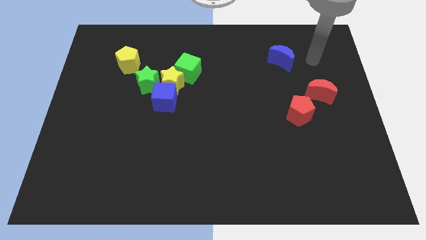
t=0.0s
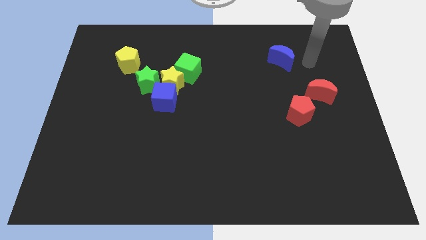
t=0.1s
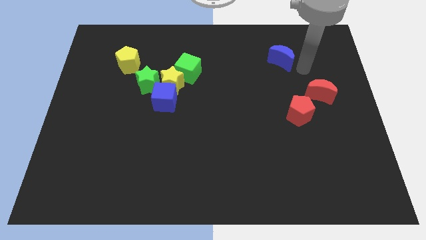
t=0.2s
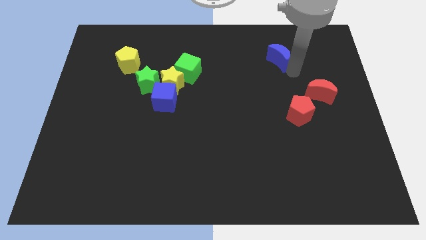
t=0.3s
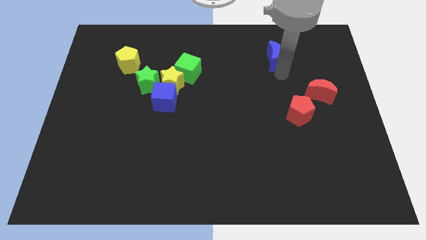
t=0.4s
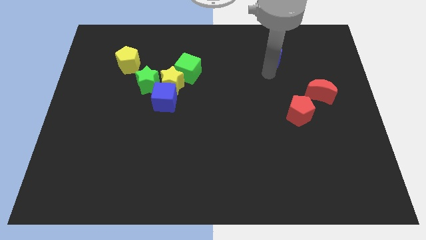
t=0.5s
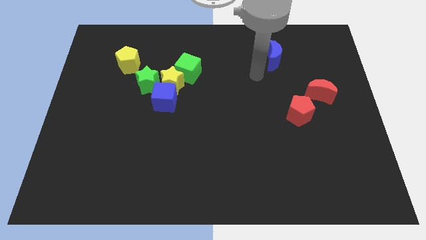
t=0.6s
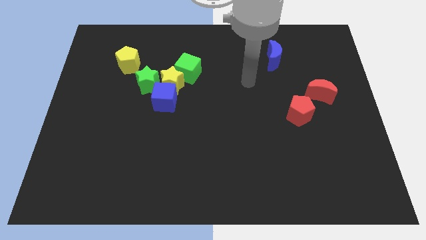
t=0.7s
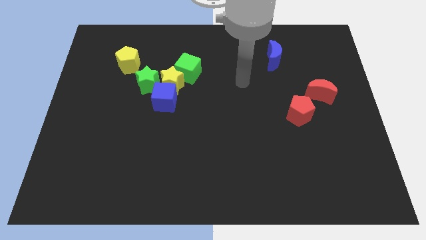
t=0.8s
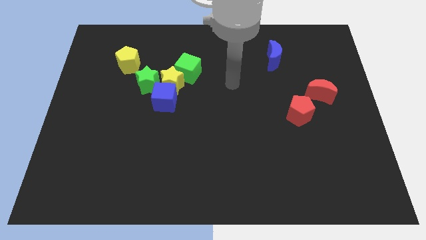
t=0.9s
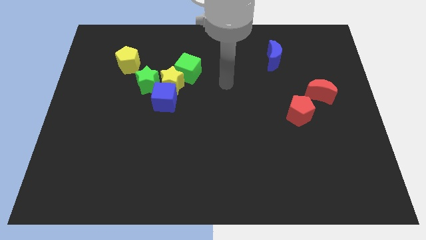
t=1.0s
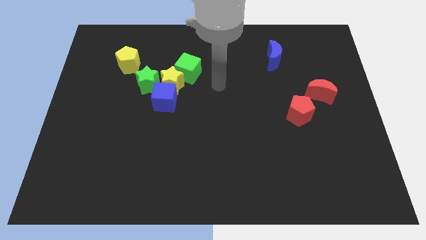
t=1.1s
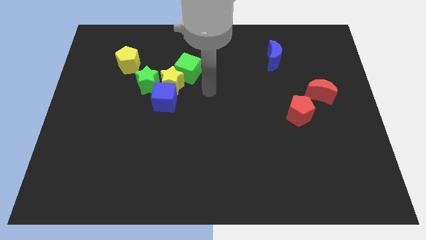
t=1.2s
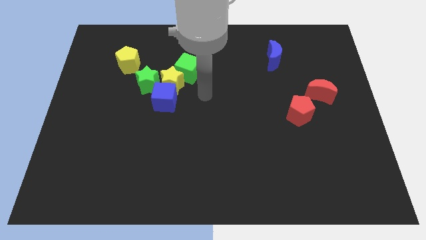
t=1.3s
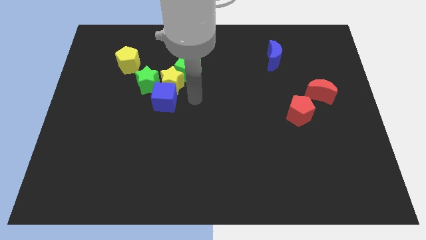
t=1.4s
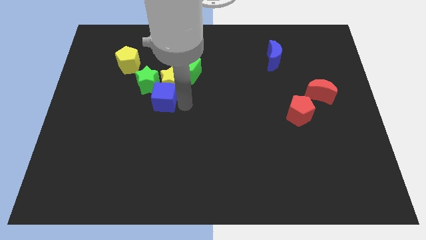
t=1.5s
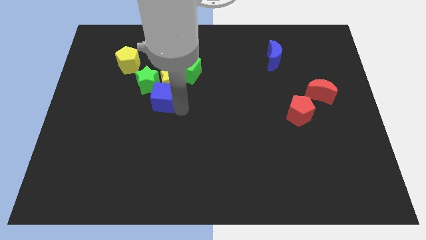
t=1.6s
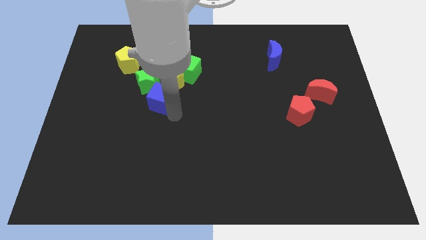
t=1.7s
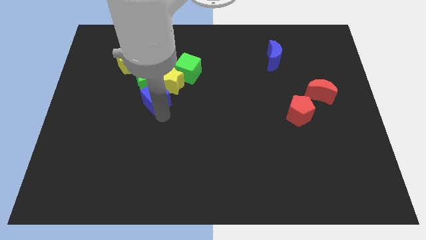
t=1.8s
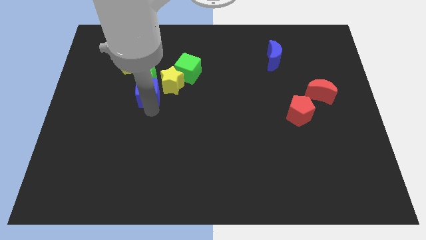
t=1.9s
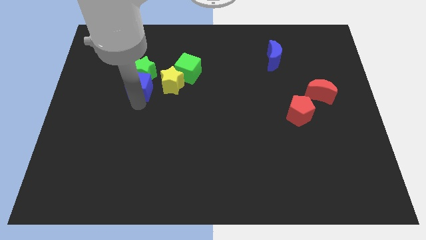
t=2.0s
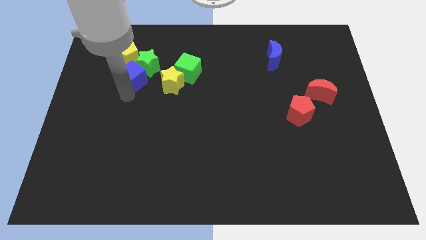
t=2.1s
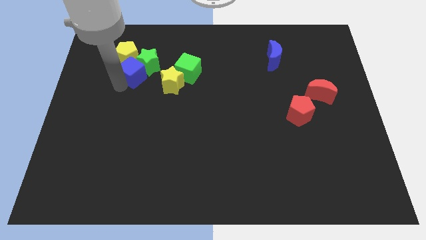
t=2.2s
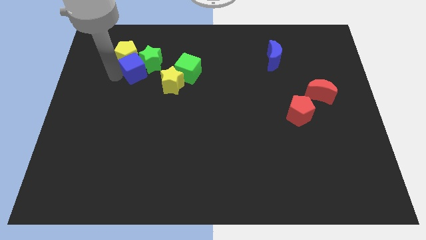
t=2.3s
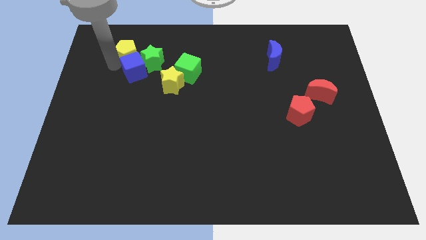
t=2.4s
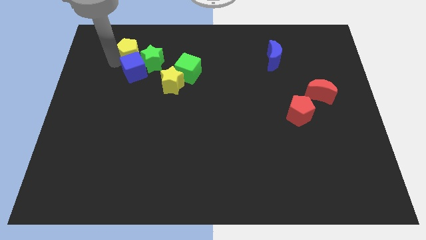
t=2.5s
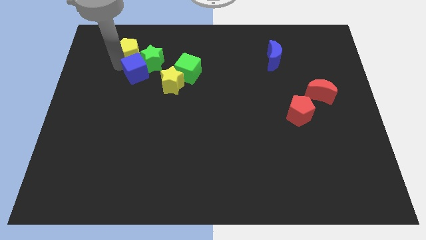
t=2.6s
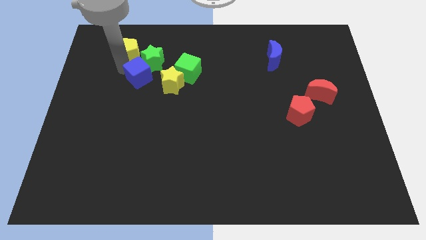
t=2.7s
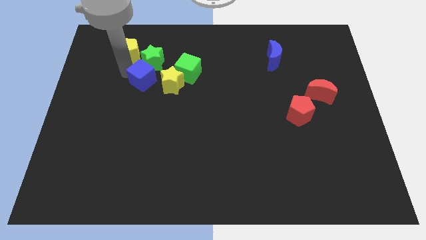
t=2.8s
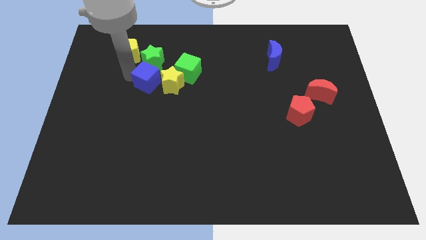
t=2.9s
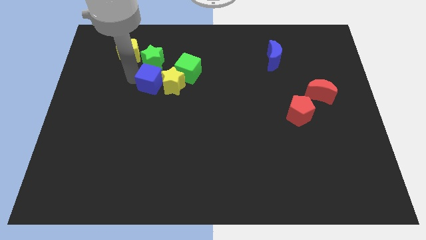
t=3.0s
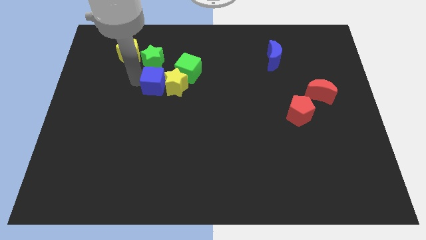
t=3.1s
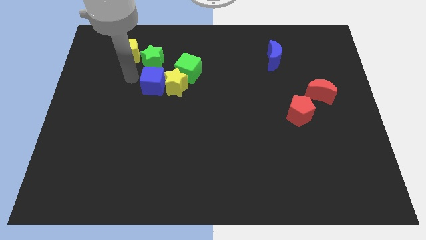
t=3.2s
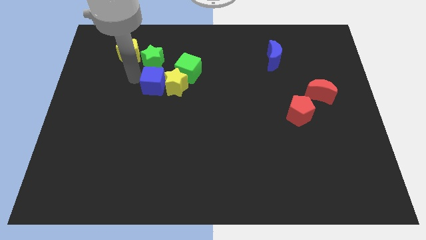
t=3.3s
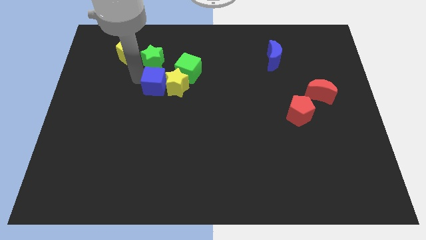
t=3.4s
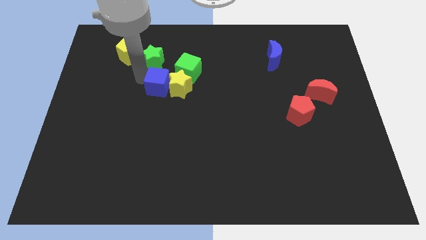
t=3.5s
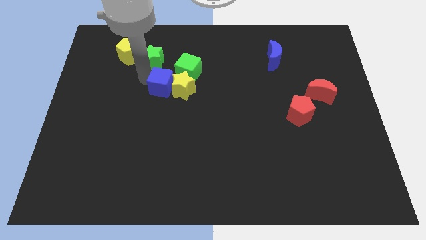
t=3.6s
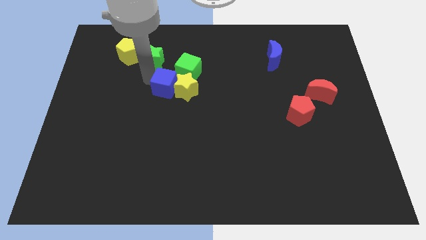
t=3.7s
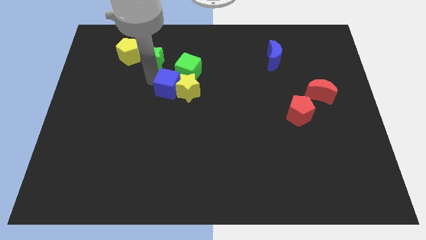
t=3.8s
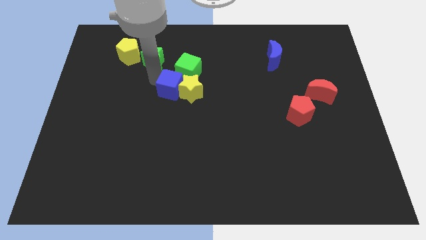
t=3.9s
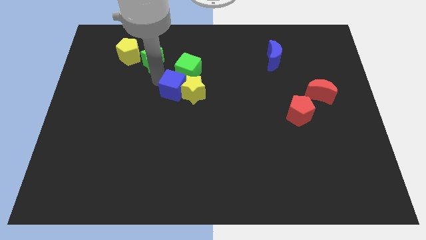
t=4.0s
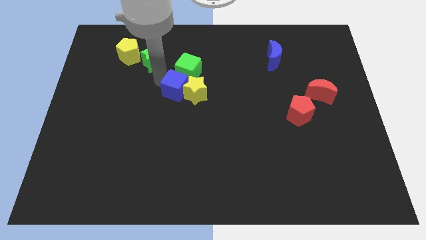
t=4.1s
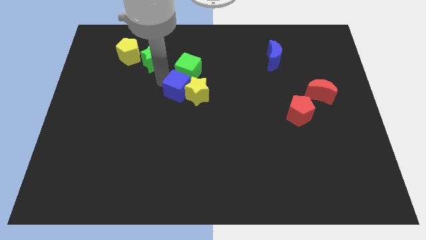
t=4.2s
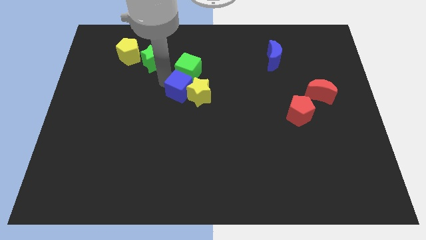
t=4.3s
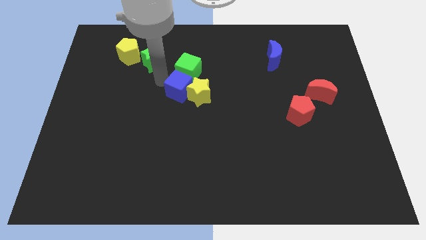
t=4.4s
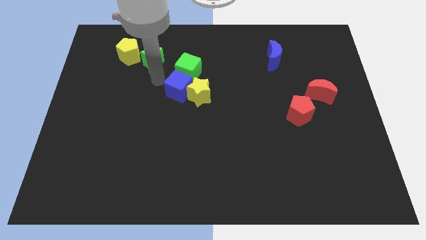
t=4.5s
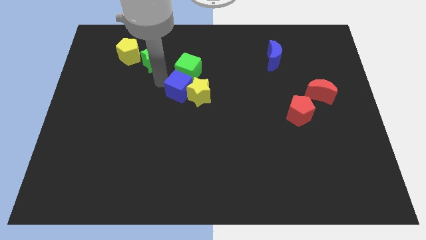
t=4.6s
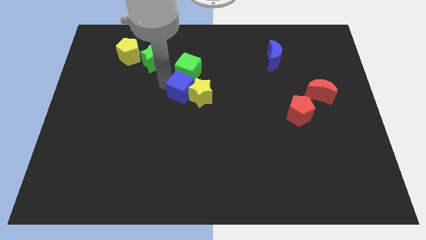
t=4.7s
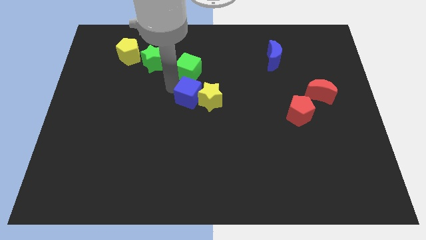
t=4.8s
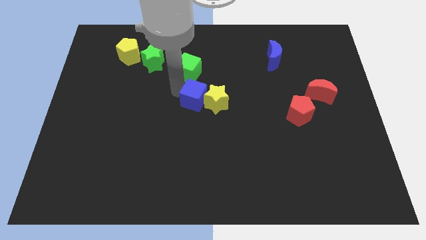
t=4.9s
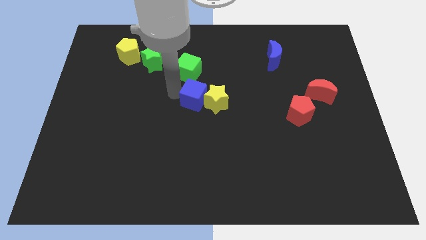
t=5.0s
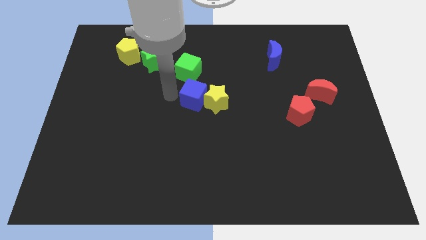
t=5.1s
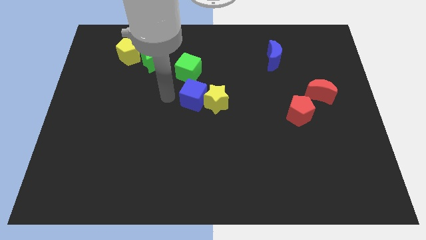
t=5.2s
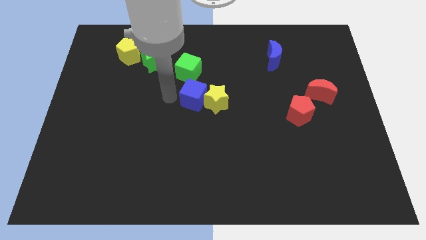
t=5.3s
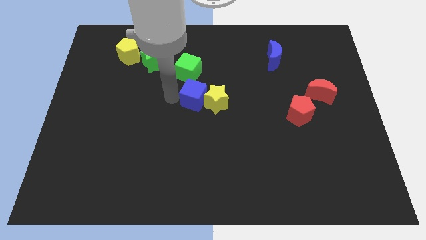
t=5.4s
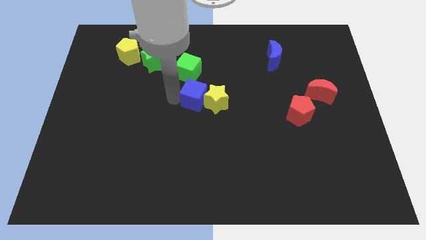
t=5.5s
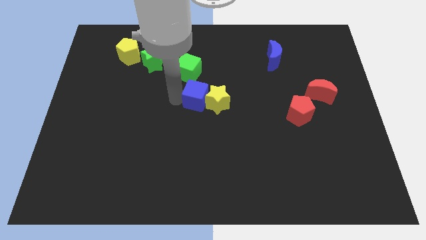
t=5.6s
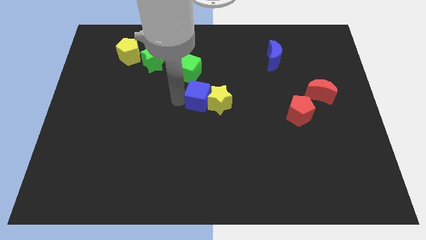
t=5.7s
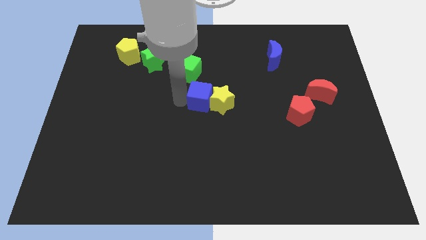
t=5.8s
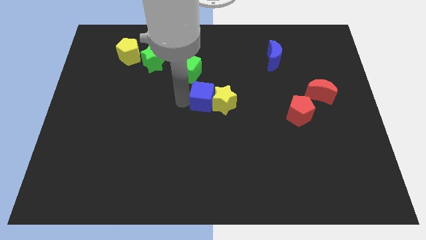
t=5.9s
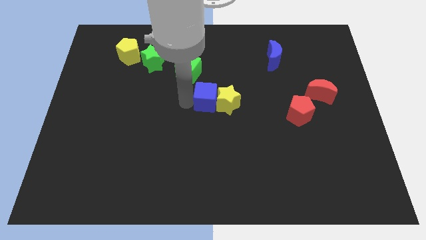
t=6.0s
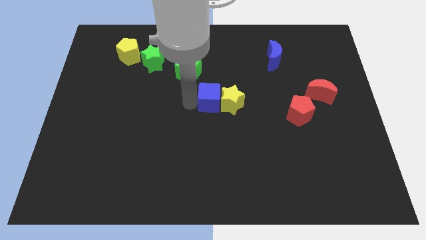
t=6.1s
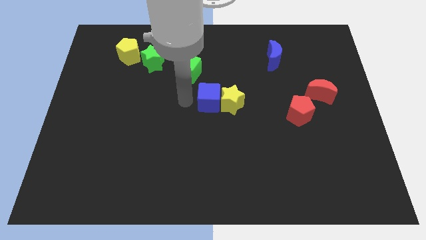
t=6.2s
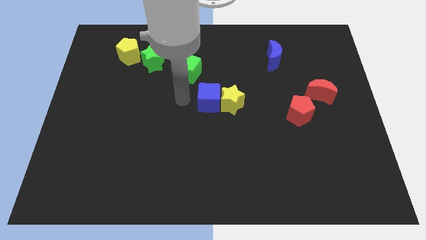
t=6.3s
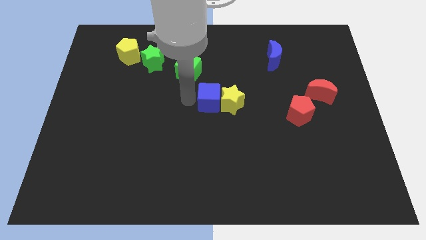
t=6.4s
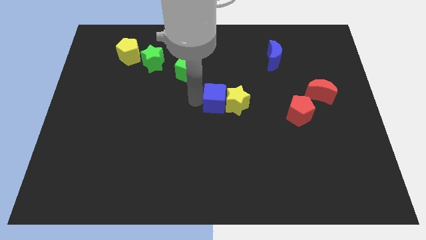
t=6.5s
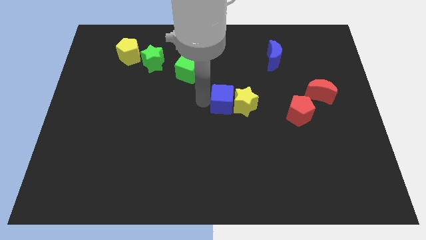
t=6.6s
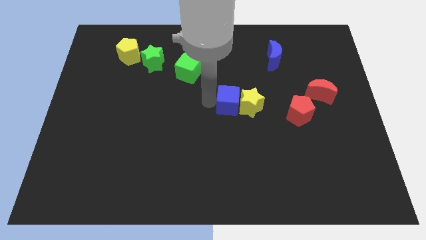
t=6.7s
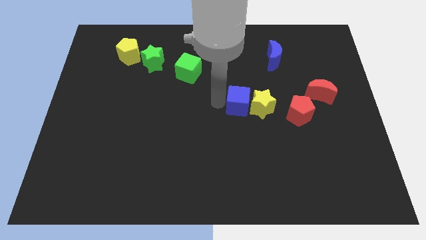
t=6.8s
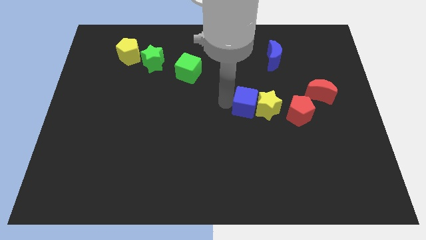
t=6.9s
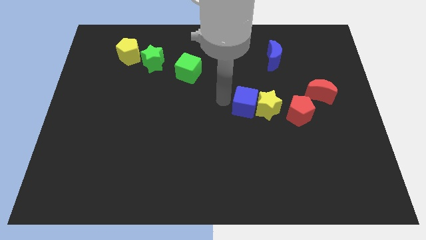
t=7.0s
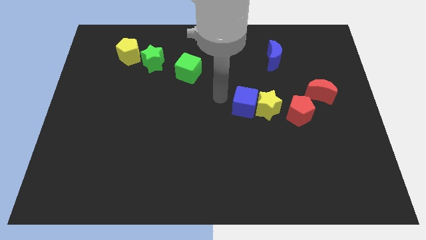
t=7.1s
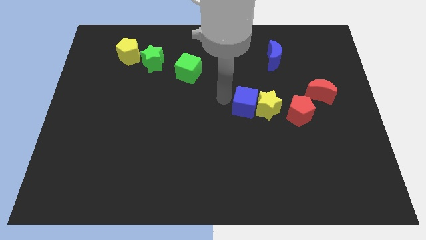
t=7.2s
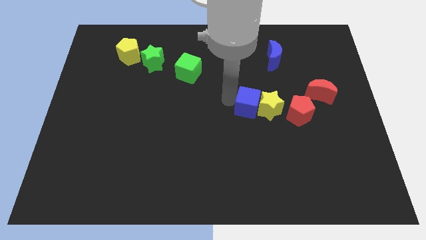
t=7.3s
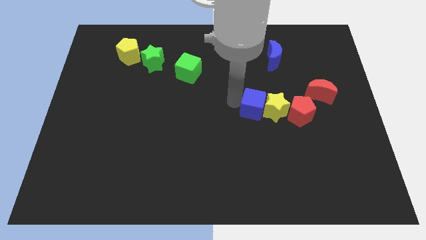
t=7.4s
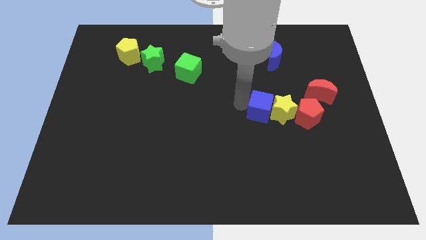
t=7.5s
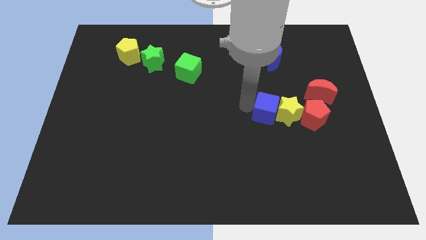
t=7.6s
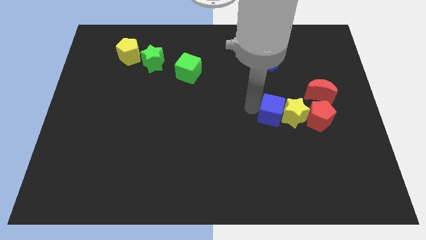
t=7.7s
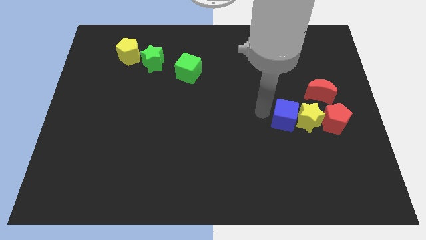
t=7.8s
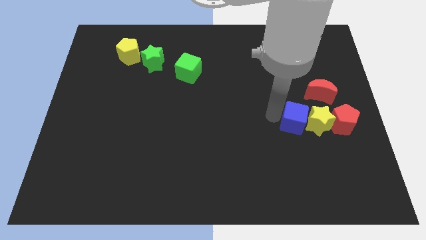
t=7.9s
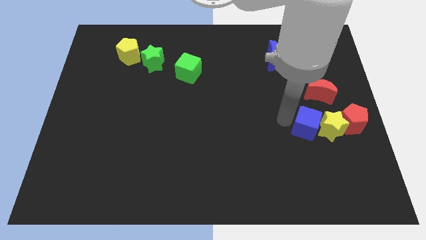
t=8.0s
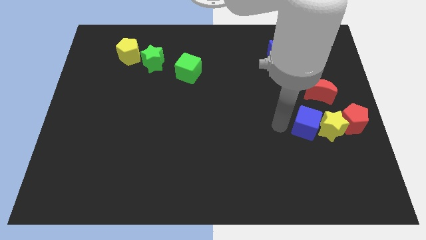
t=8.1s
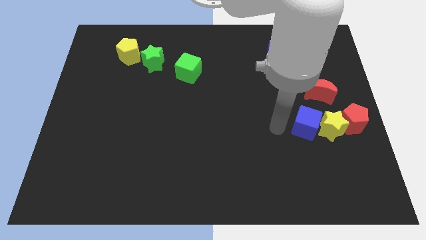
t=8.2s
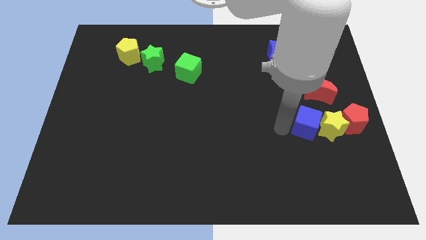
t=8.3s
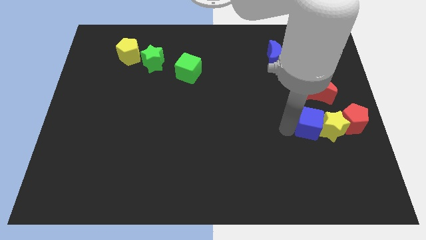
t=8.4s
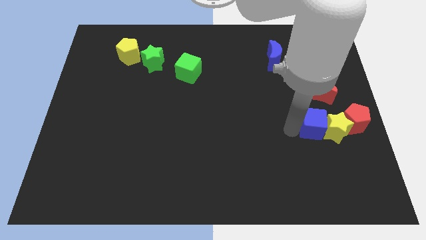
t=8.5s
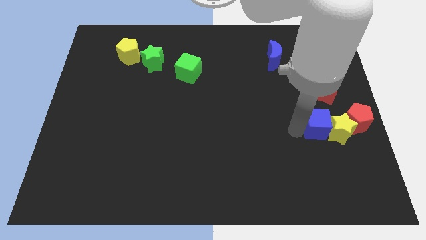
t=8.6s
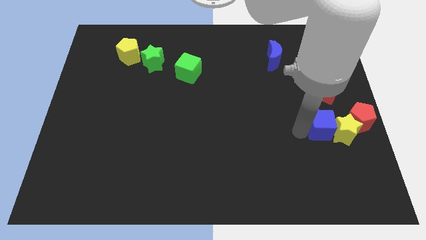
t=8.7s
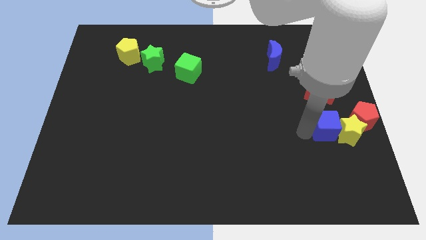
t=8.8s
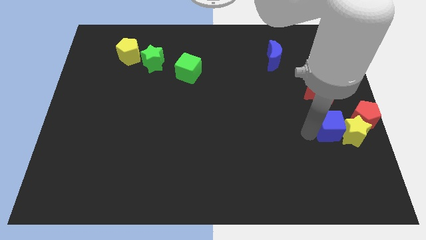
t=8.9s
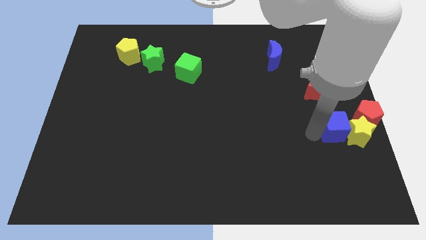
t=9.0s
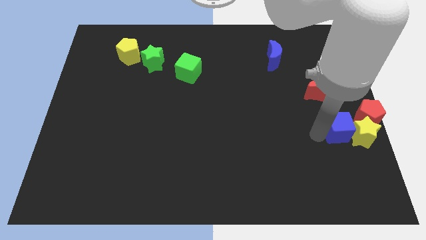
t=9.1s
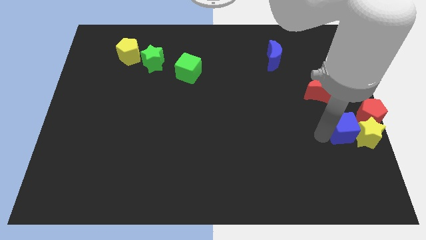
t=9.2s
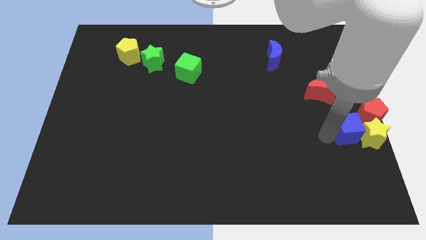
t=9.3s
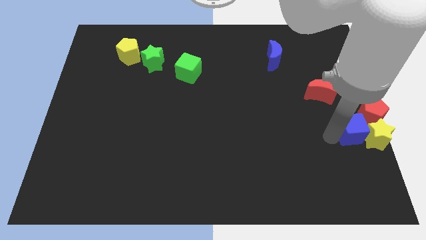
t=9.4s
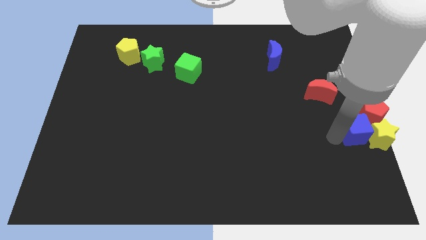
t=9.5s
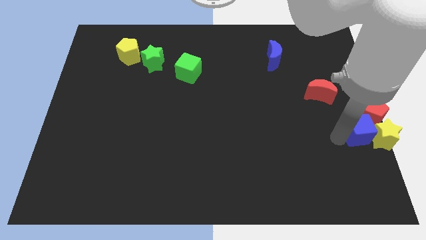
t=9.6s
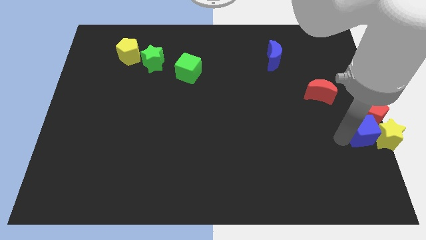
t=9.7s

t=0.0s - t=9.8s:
slide the blue cube to the red pentagon
